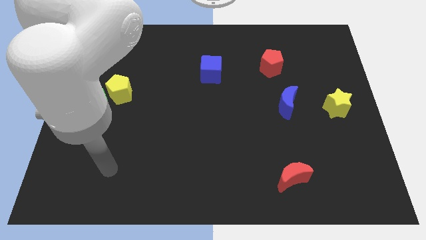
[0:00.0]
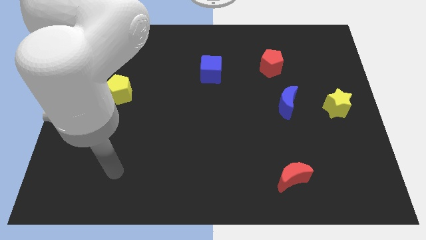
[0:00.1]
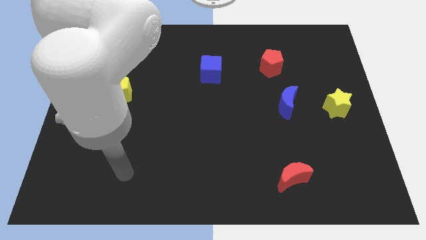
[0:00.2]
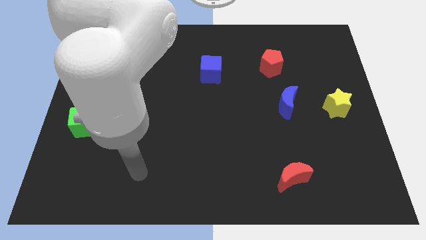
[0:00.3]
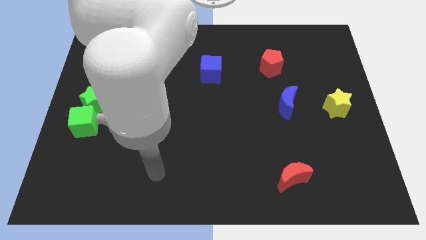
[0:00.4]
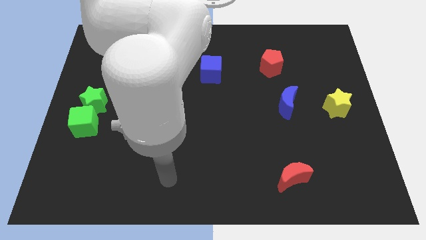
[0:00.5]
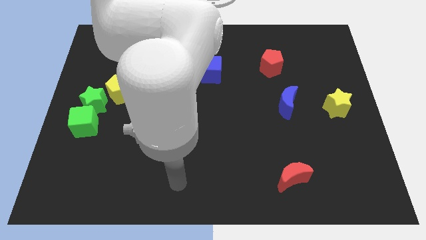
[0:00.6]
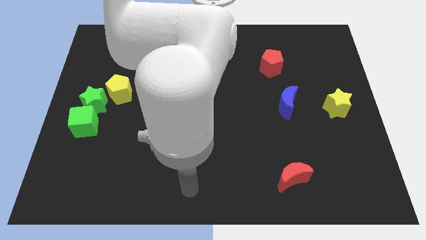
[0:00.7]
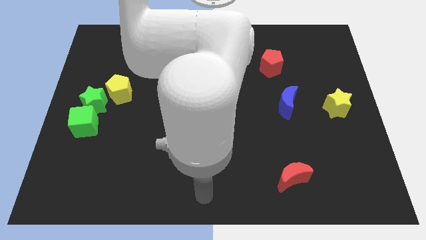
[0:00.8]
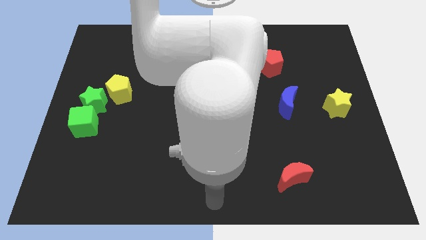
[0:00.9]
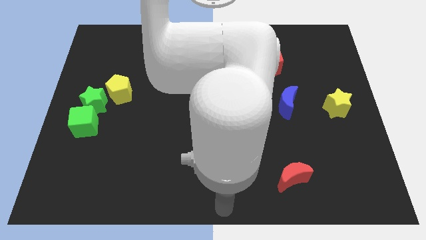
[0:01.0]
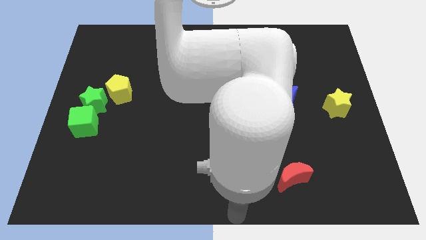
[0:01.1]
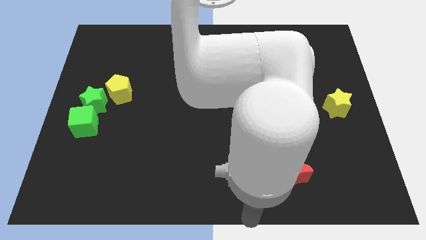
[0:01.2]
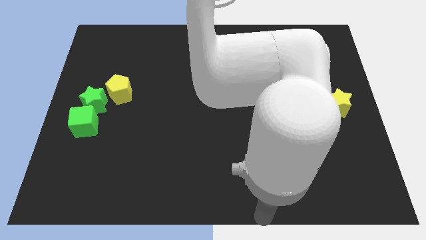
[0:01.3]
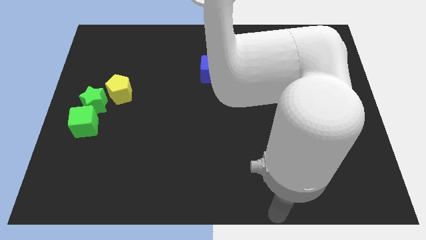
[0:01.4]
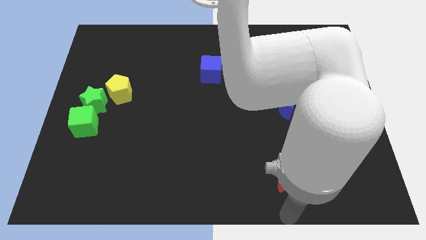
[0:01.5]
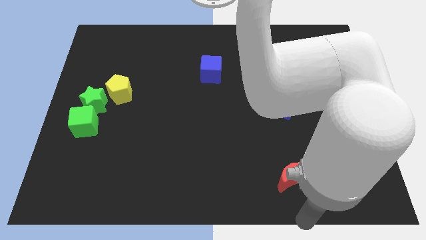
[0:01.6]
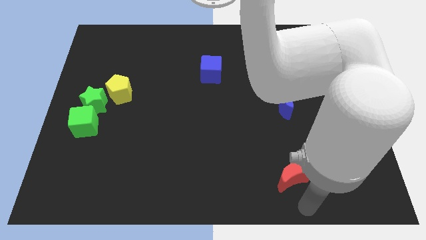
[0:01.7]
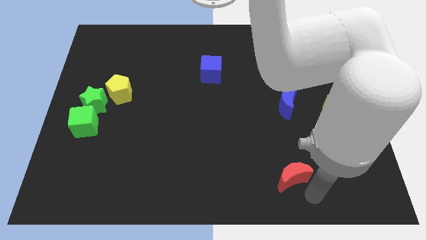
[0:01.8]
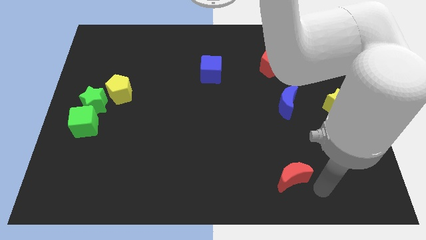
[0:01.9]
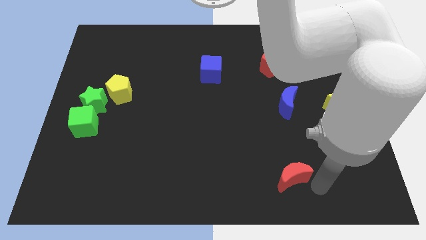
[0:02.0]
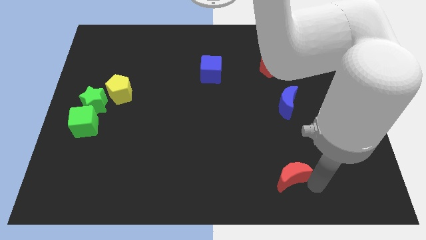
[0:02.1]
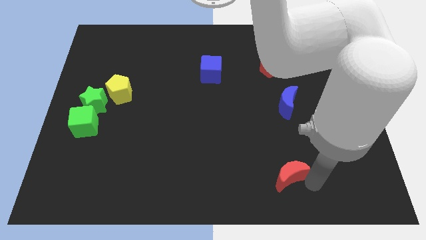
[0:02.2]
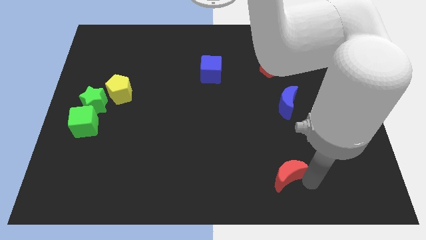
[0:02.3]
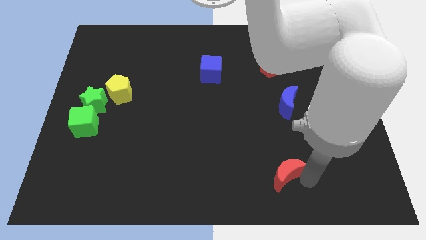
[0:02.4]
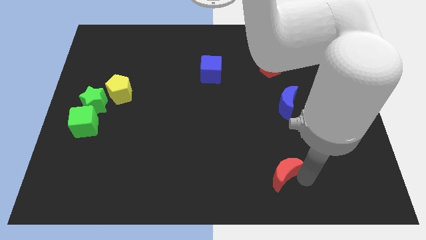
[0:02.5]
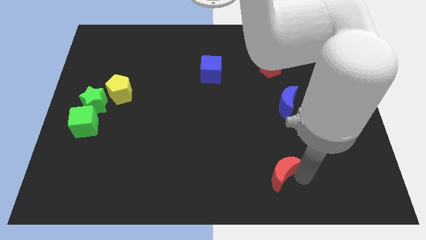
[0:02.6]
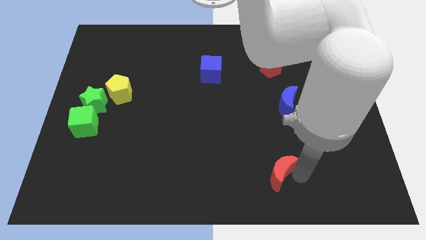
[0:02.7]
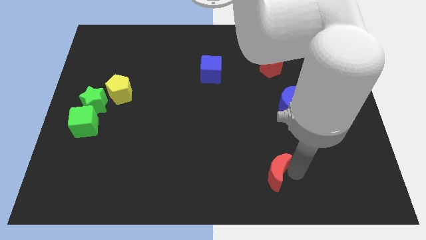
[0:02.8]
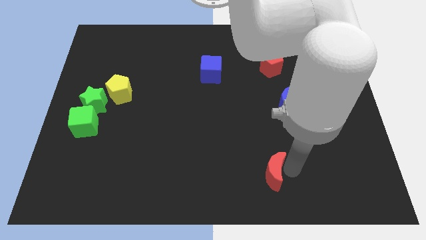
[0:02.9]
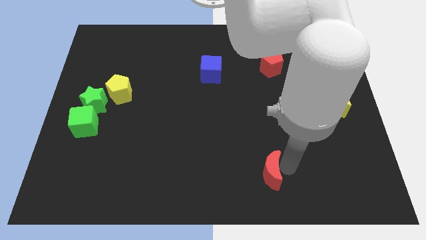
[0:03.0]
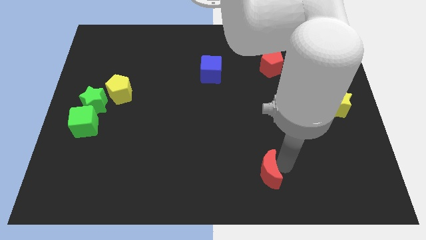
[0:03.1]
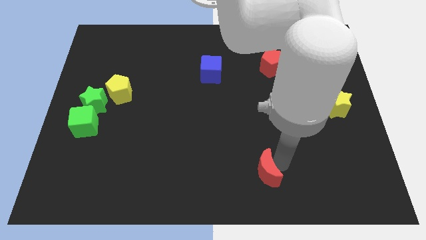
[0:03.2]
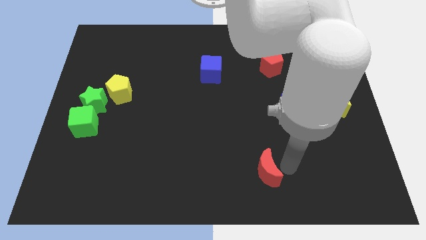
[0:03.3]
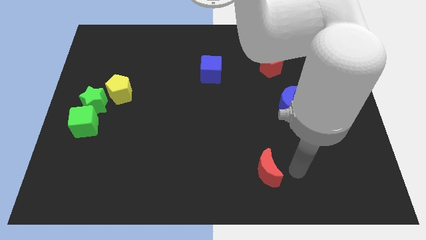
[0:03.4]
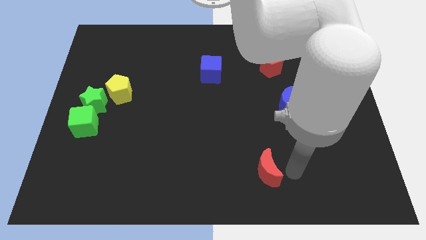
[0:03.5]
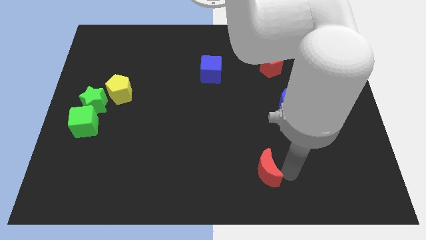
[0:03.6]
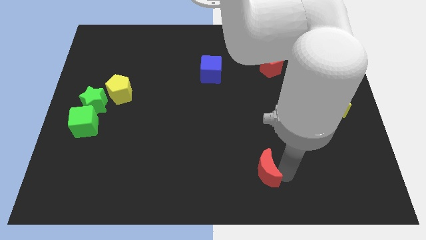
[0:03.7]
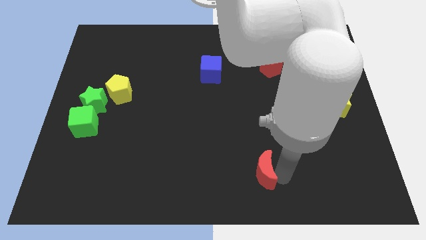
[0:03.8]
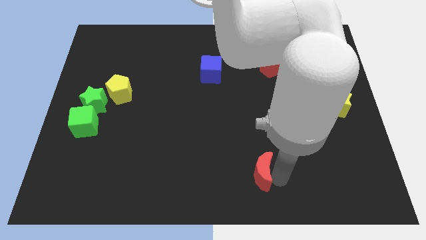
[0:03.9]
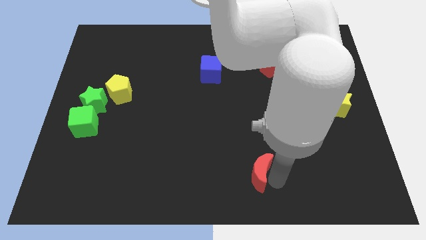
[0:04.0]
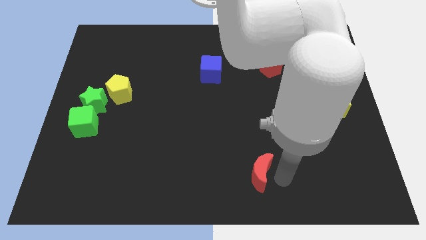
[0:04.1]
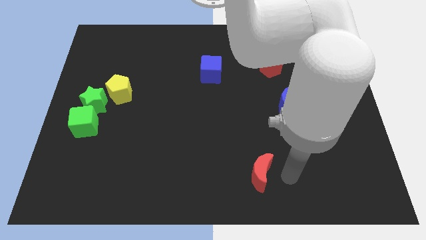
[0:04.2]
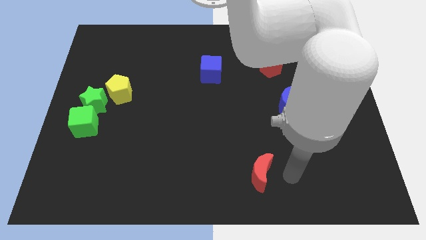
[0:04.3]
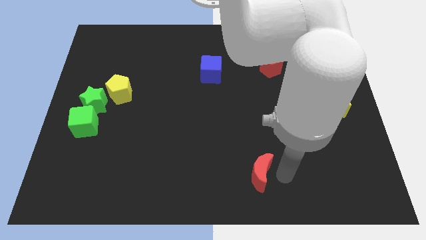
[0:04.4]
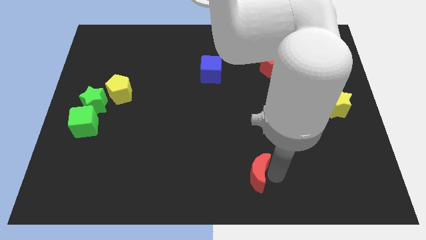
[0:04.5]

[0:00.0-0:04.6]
slightly push the red moon left

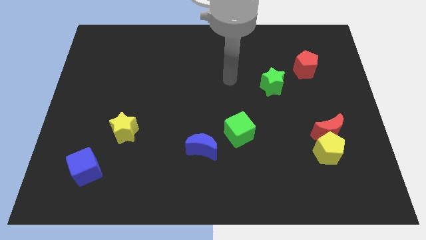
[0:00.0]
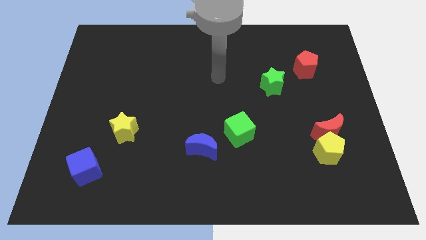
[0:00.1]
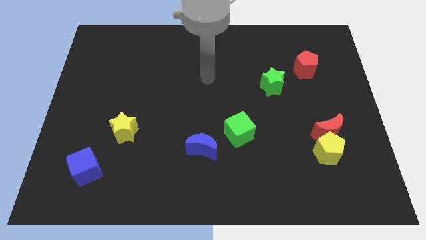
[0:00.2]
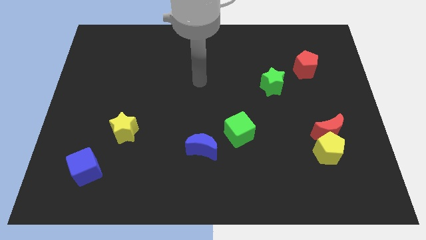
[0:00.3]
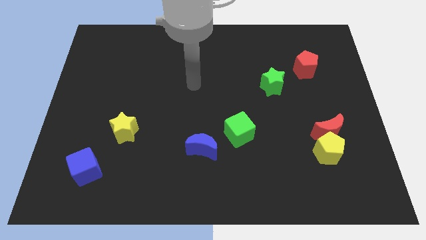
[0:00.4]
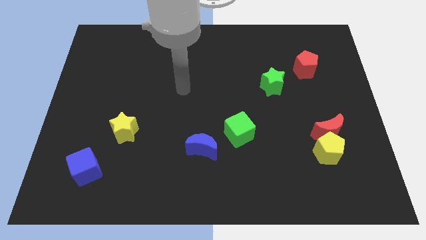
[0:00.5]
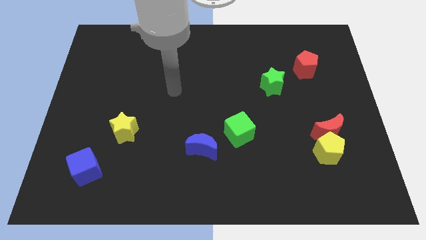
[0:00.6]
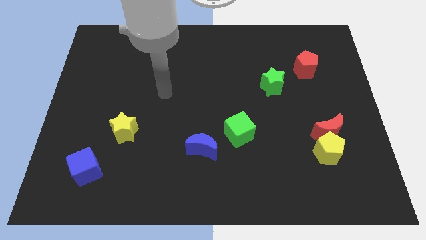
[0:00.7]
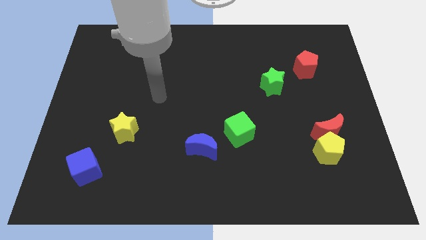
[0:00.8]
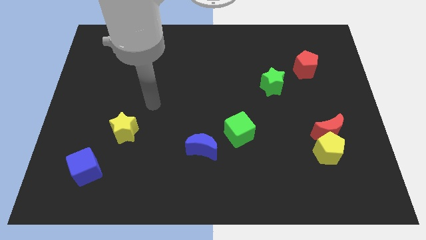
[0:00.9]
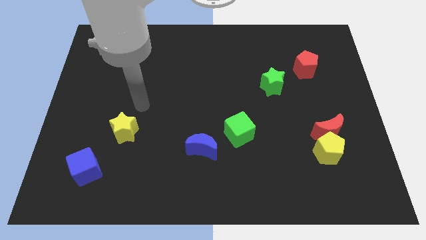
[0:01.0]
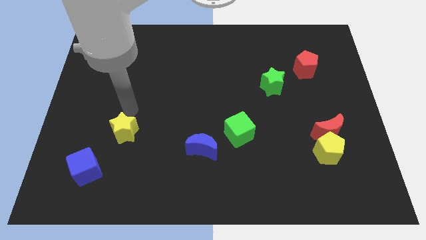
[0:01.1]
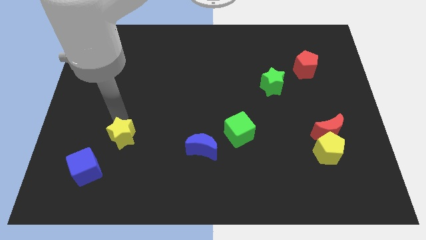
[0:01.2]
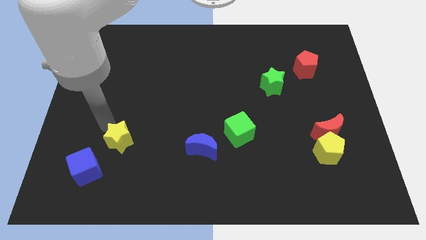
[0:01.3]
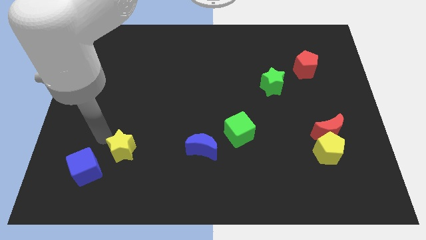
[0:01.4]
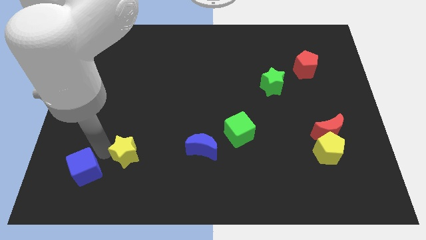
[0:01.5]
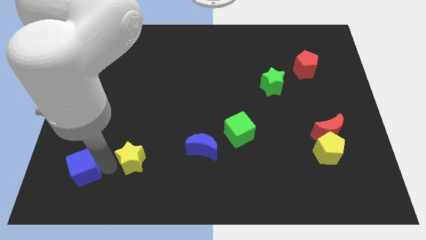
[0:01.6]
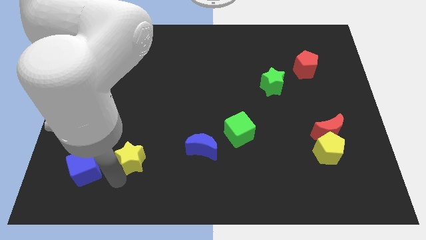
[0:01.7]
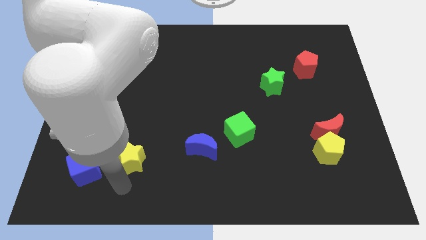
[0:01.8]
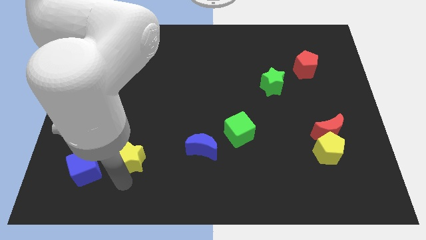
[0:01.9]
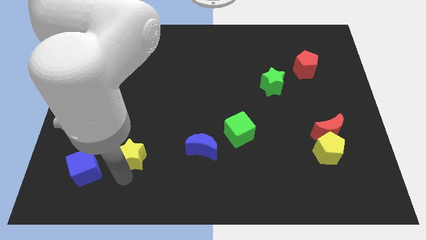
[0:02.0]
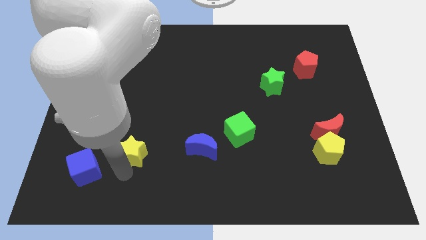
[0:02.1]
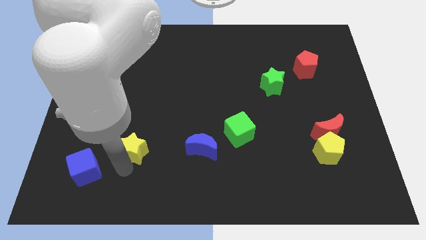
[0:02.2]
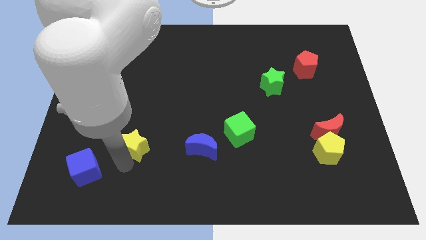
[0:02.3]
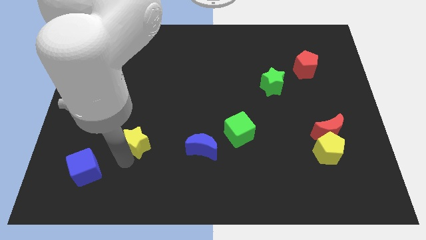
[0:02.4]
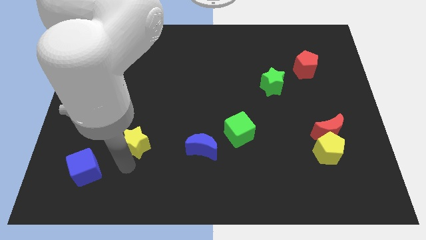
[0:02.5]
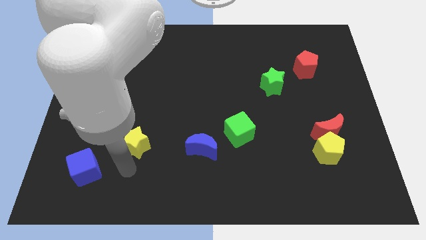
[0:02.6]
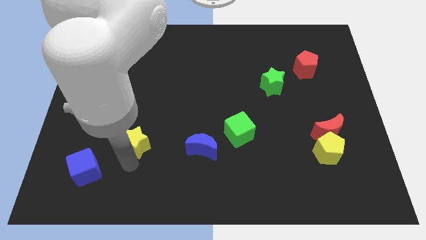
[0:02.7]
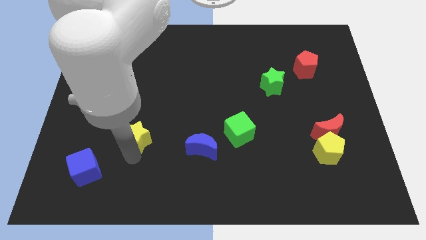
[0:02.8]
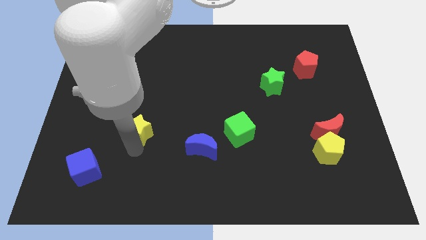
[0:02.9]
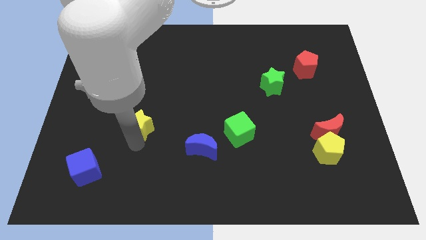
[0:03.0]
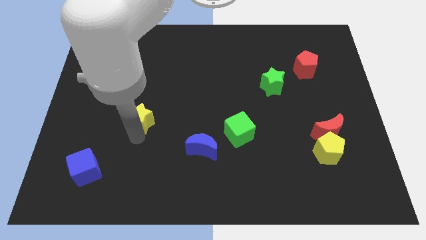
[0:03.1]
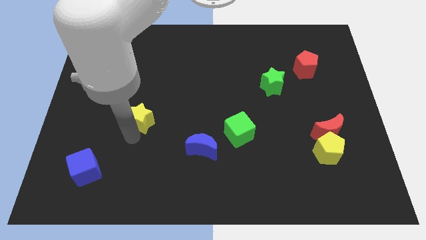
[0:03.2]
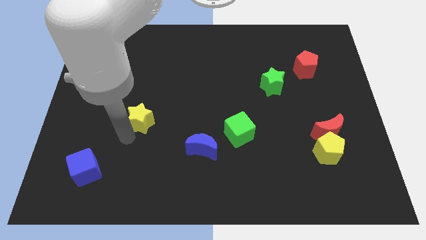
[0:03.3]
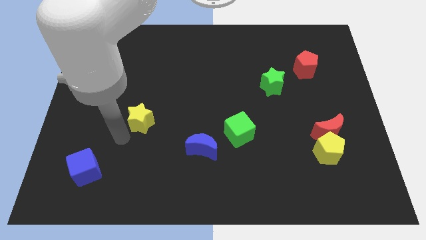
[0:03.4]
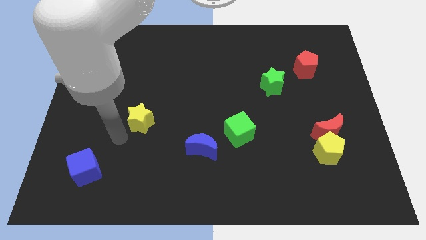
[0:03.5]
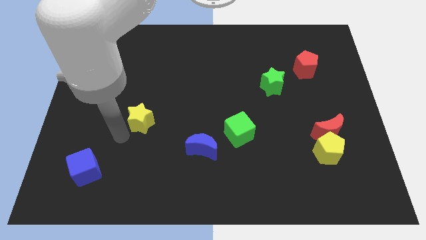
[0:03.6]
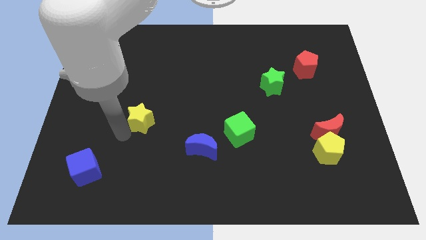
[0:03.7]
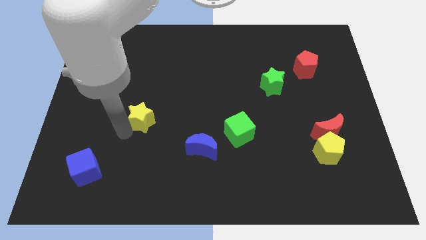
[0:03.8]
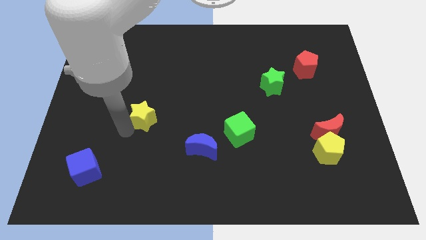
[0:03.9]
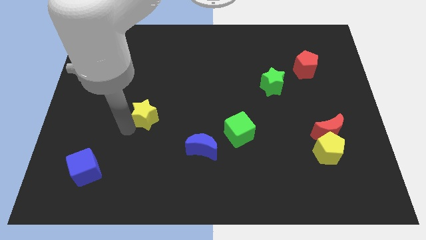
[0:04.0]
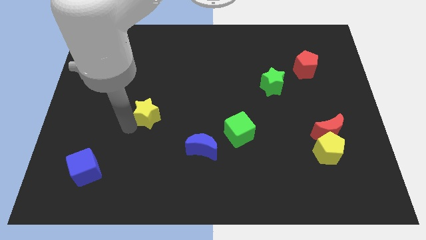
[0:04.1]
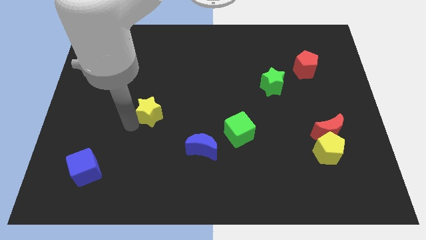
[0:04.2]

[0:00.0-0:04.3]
slightly slide the yellow star upwards and right
